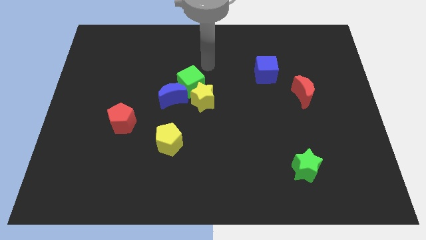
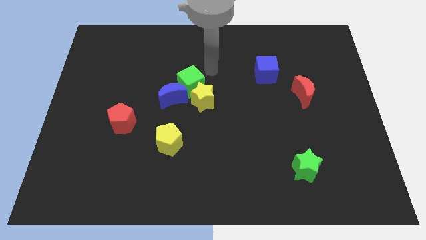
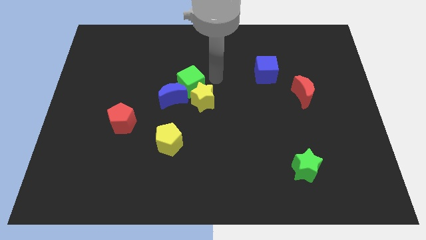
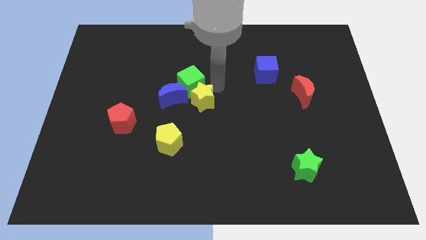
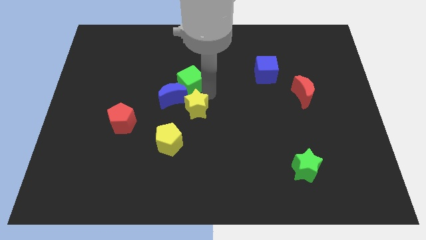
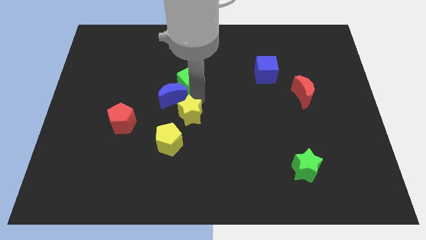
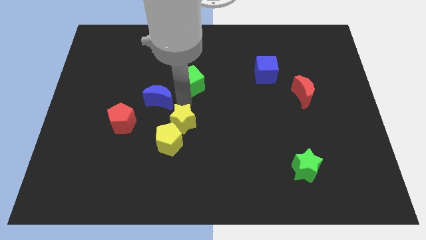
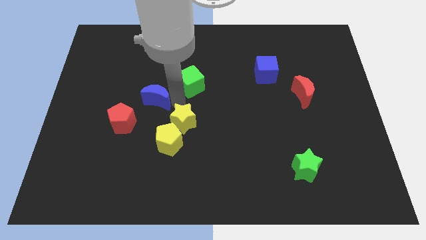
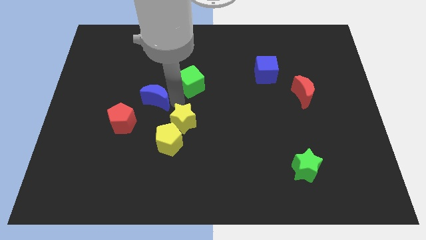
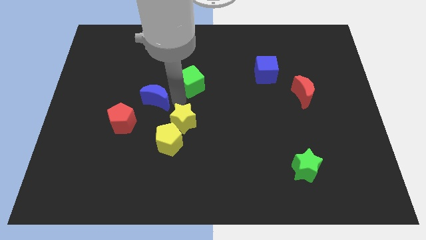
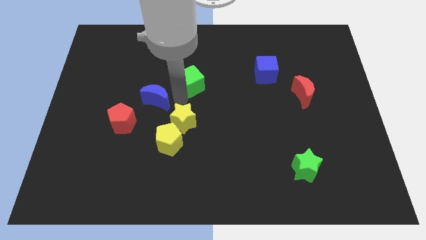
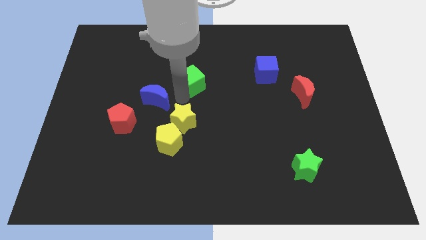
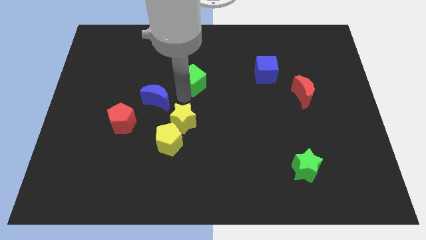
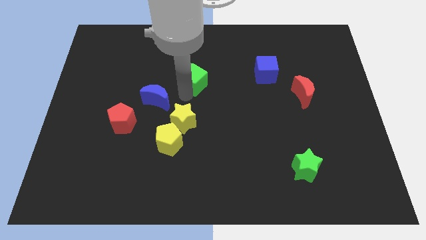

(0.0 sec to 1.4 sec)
separate the green cube from the yellow star and blue moon

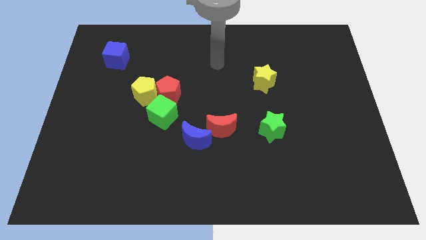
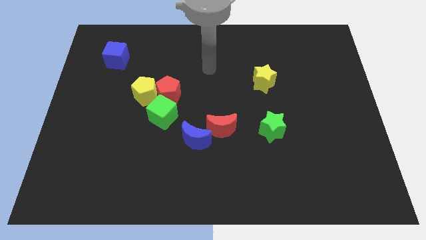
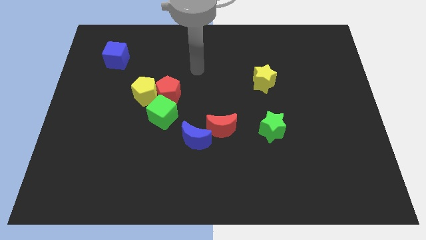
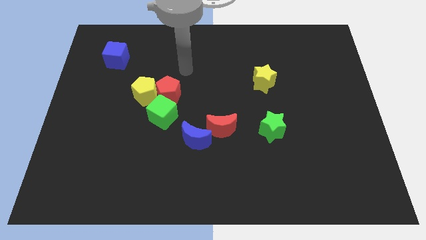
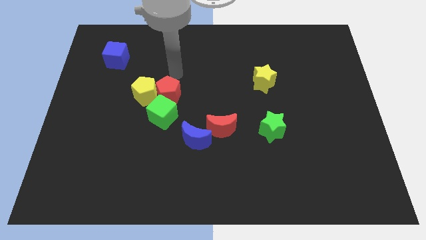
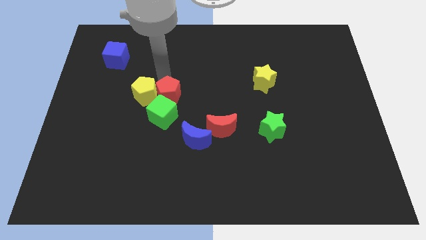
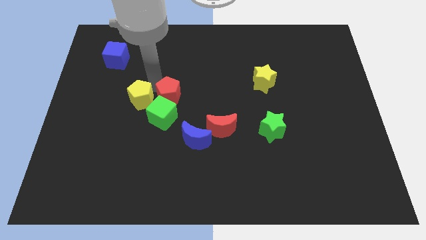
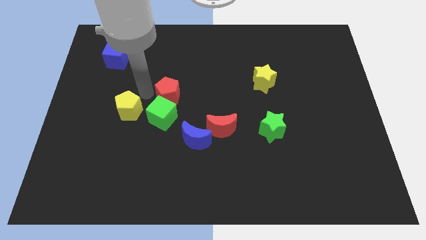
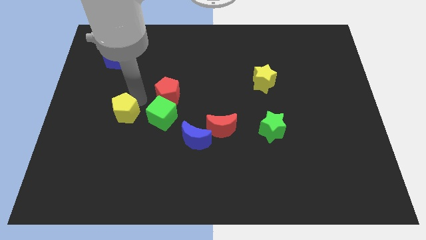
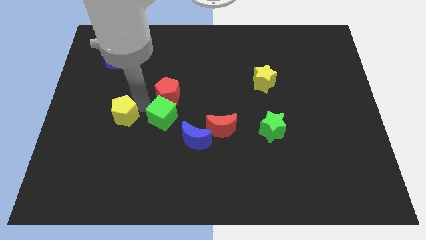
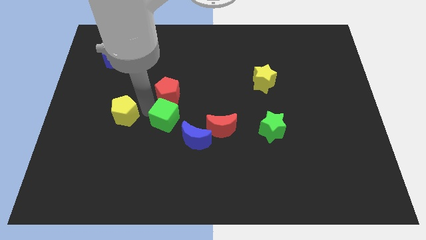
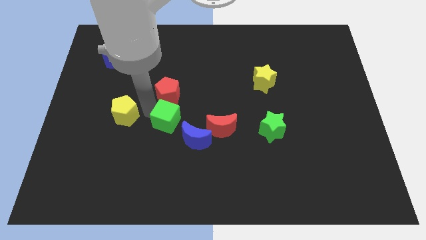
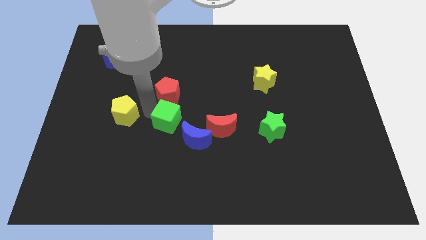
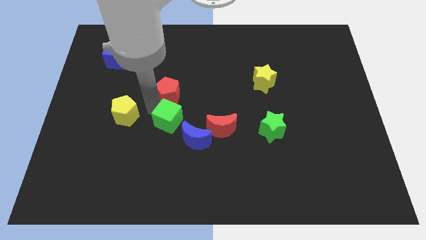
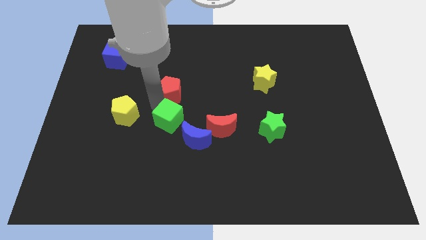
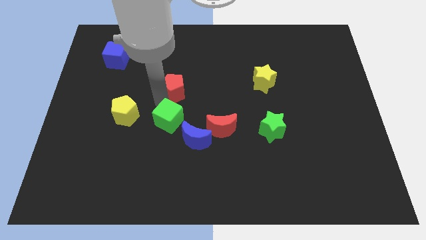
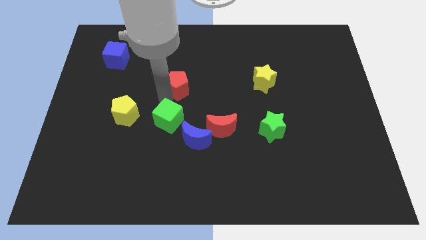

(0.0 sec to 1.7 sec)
separate the red pentagon from the yellow pentagon and green cube

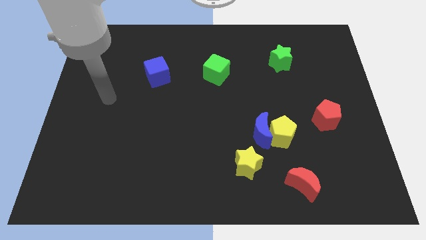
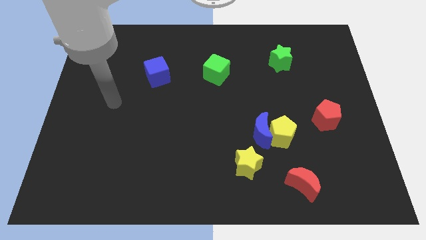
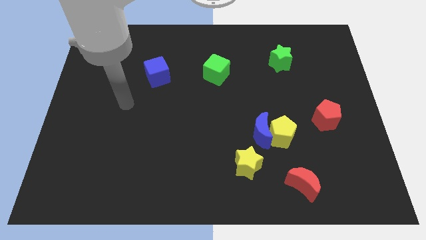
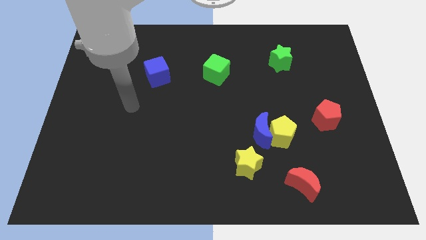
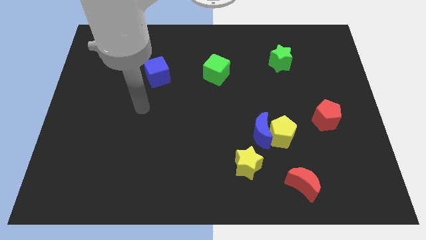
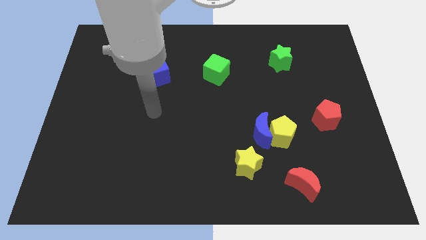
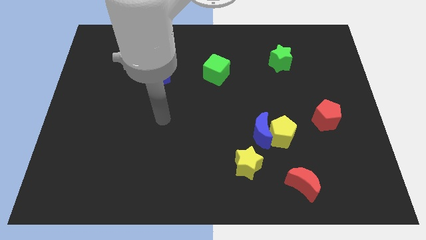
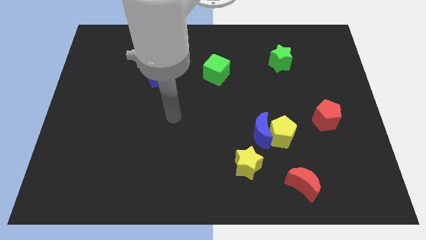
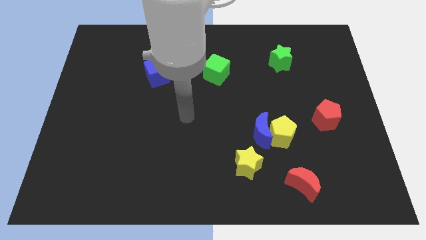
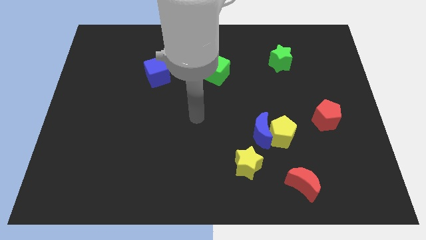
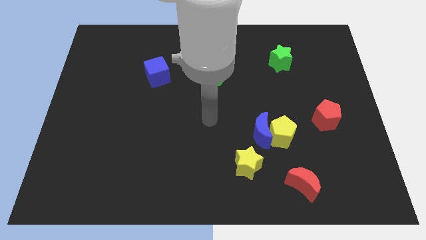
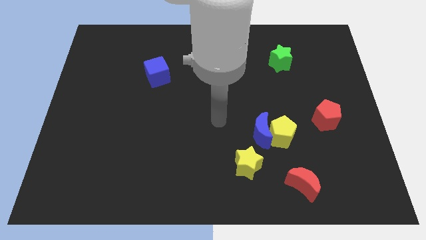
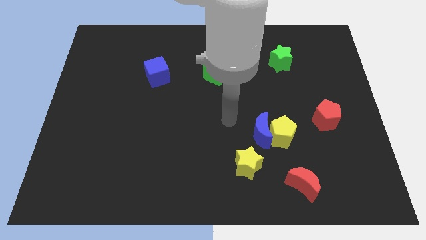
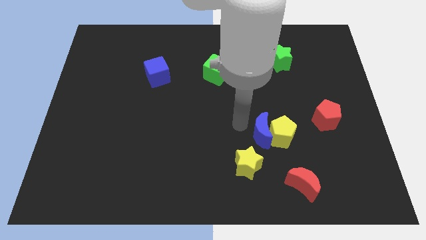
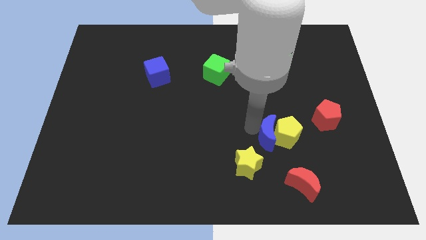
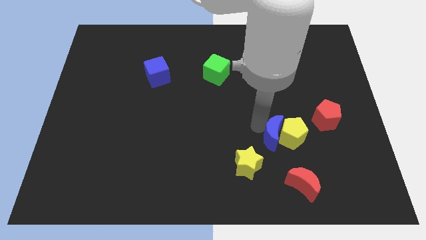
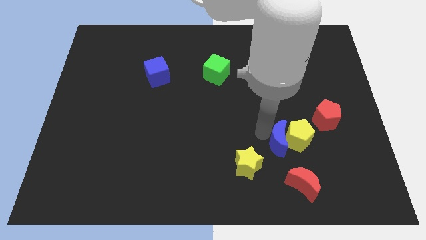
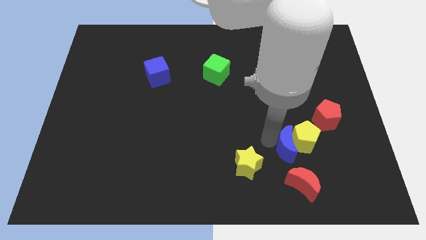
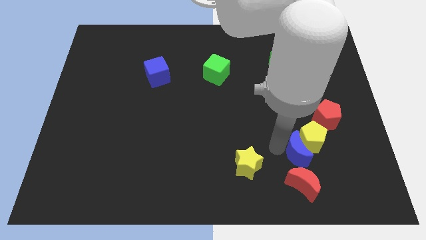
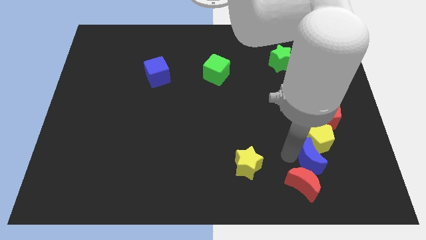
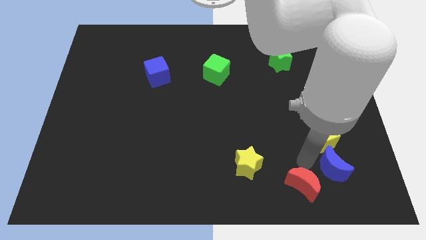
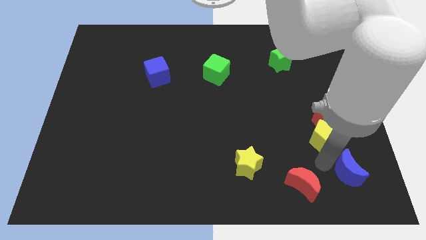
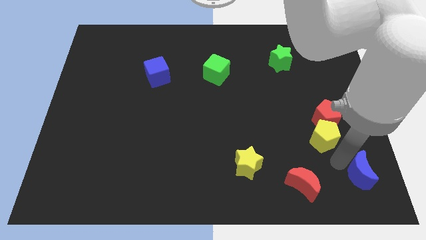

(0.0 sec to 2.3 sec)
separate the yellow pentagon from the blue moon

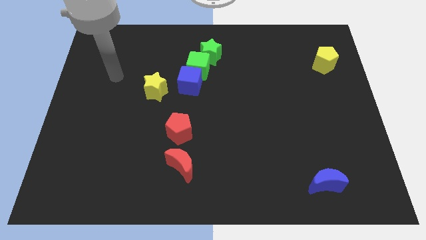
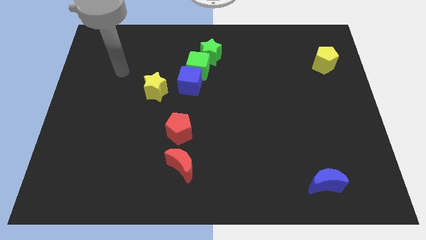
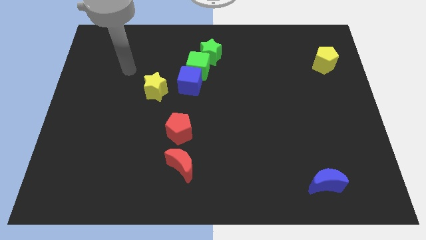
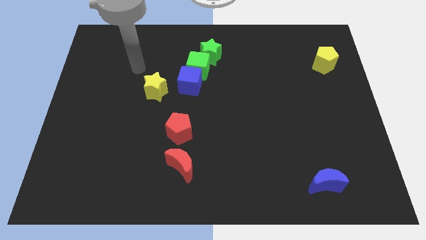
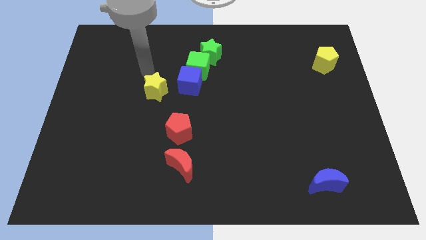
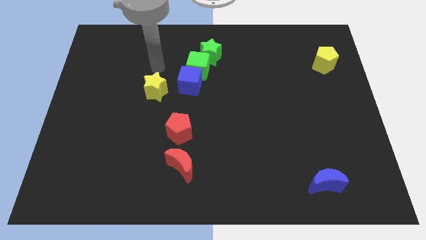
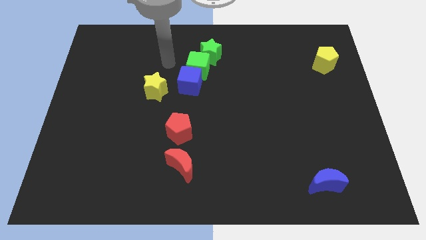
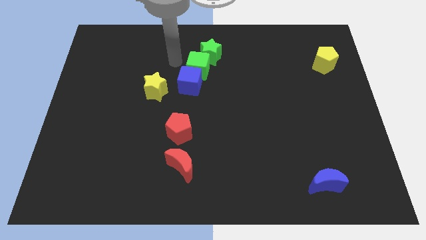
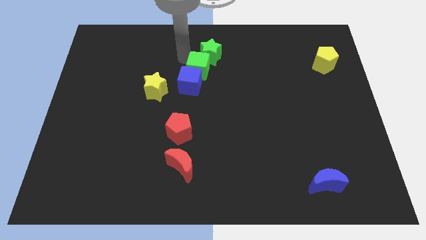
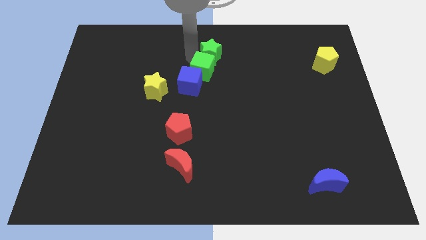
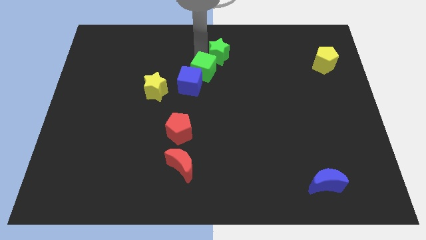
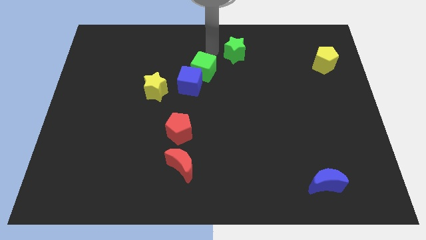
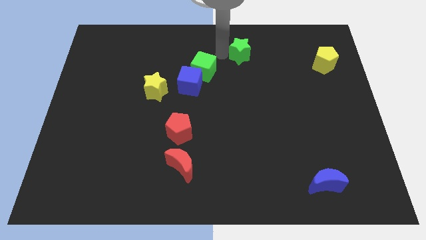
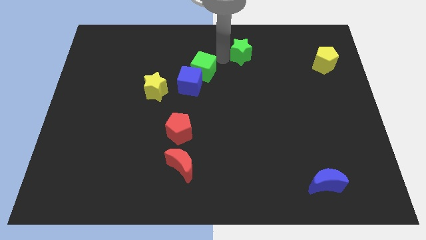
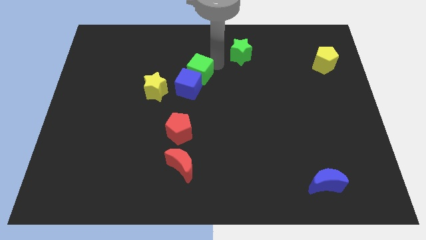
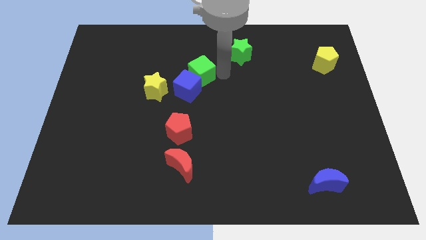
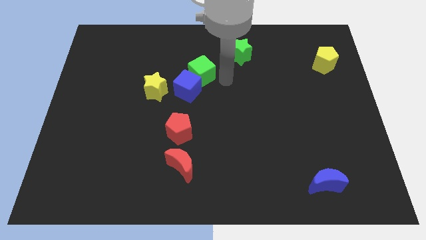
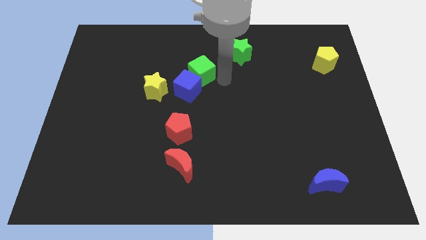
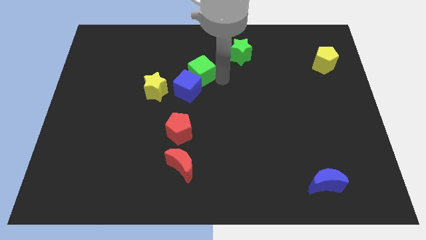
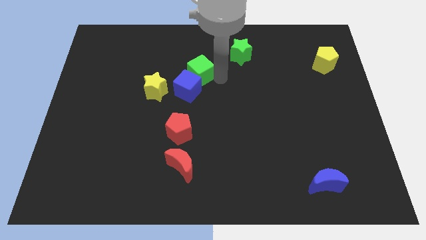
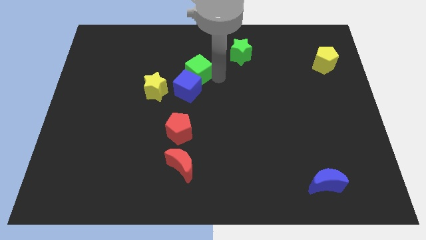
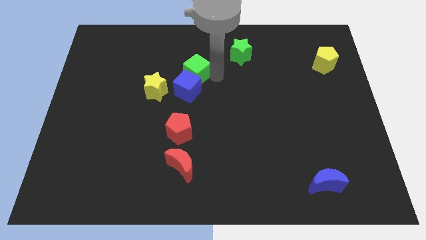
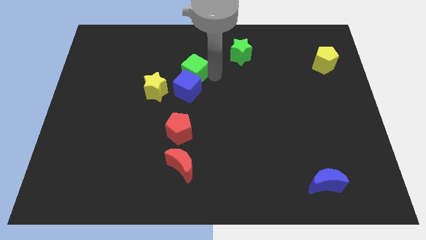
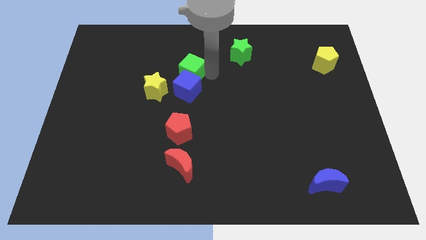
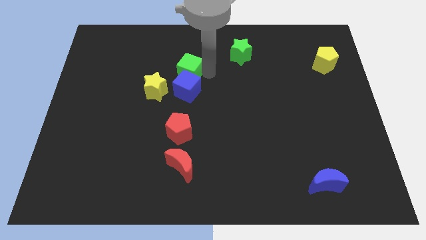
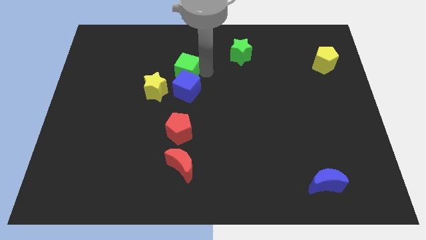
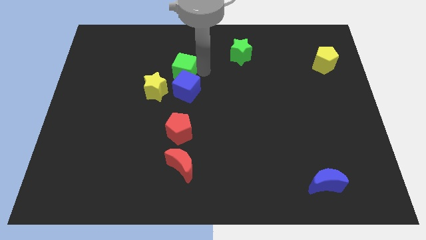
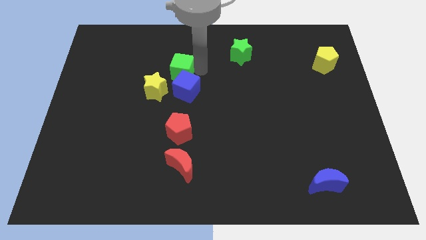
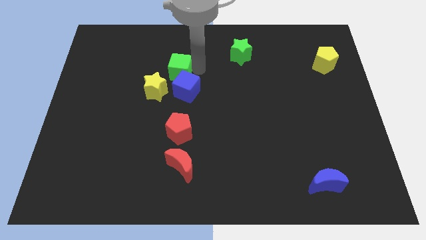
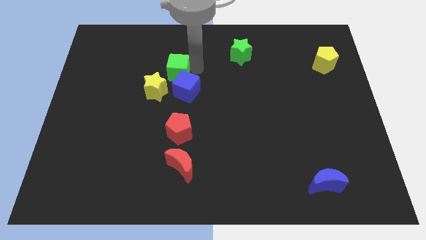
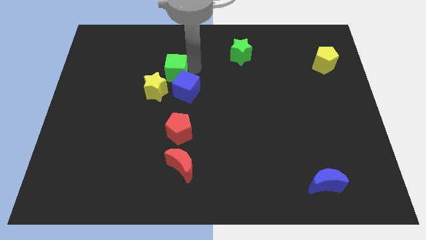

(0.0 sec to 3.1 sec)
separate the green cube from the blue cube and green star

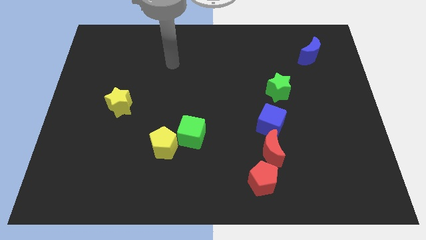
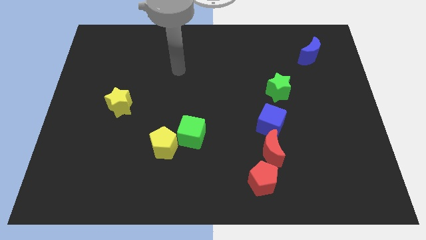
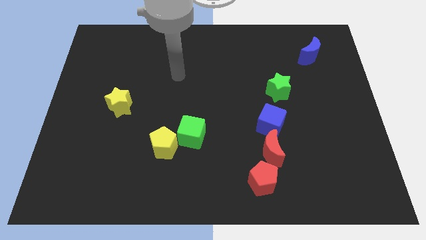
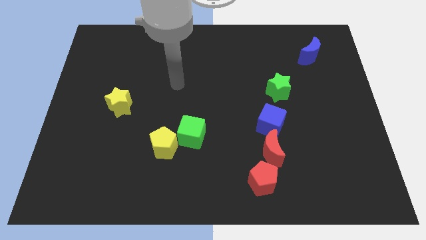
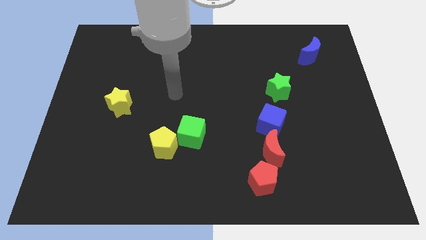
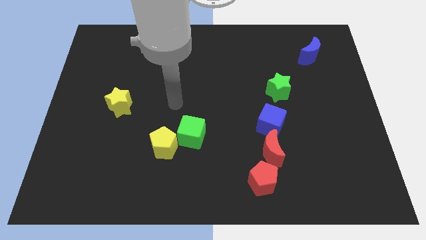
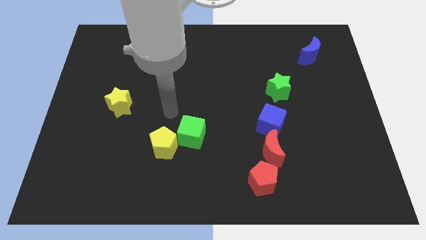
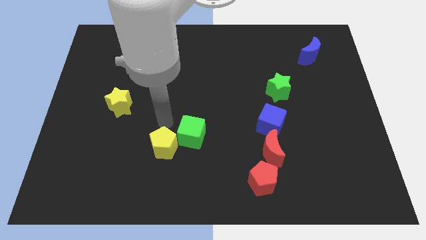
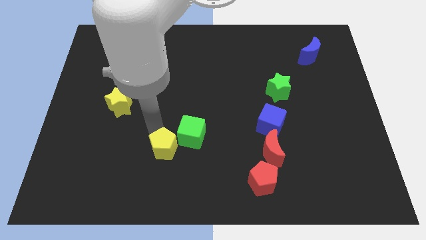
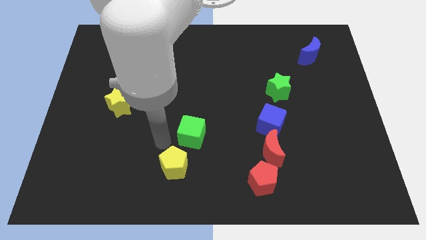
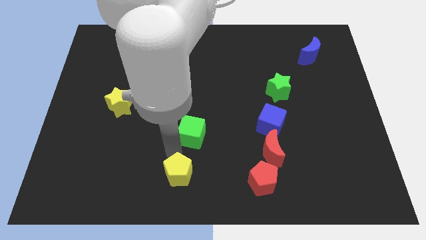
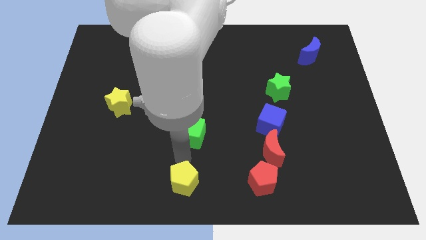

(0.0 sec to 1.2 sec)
pull the green cube apart from the yellow pentagon
